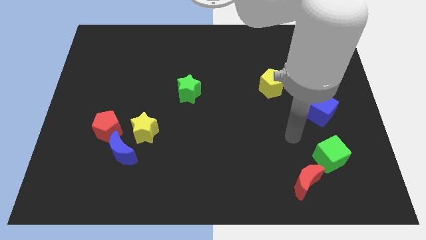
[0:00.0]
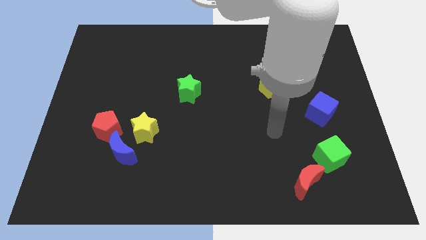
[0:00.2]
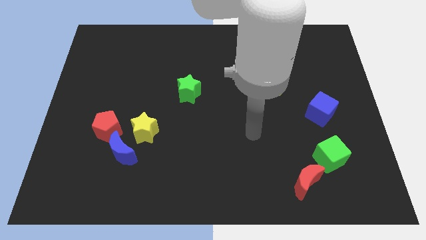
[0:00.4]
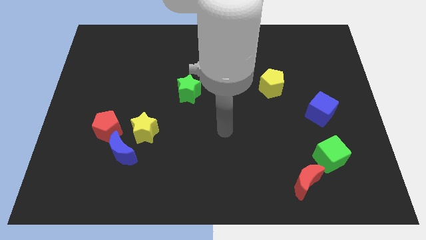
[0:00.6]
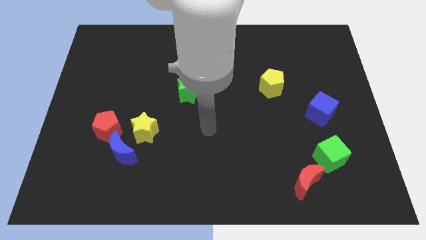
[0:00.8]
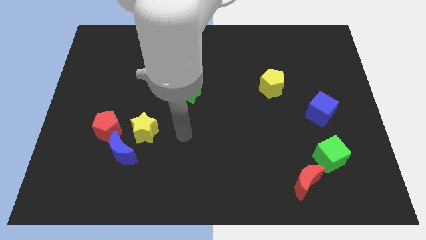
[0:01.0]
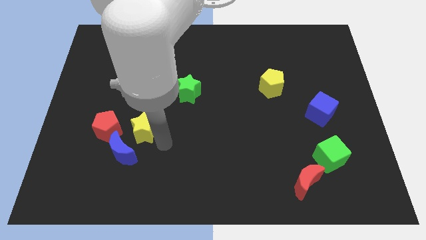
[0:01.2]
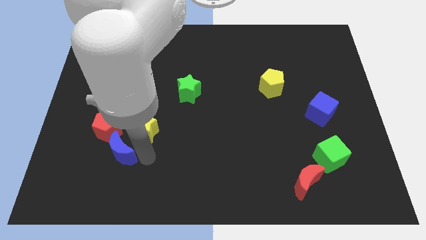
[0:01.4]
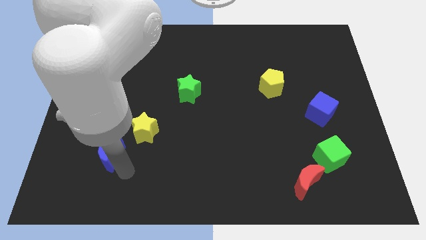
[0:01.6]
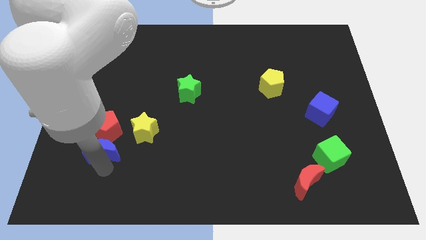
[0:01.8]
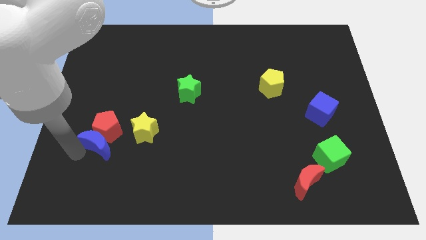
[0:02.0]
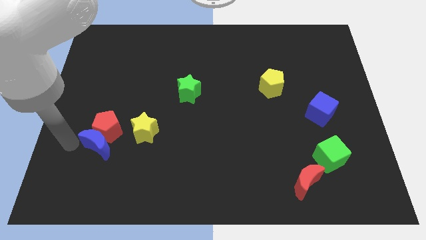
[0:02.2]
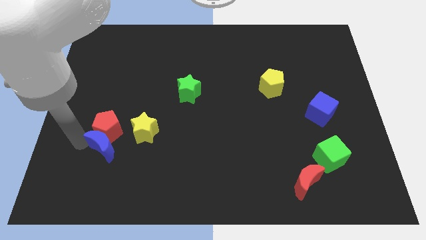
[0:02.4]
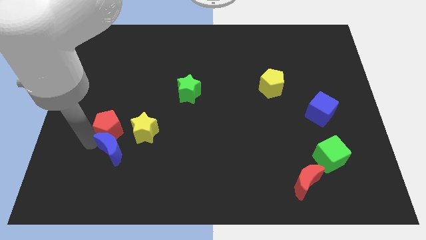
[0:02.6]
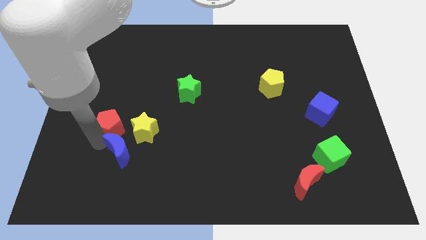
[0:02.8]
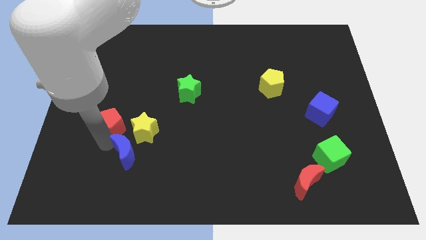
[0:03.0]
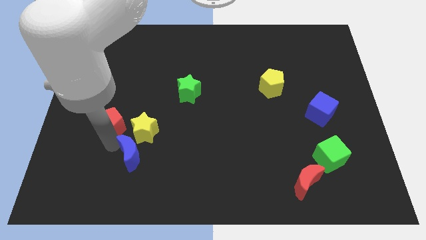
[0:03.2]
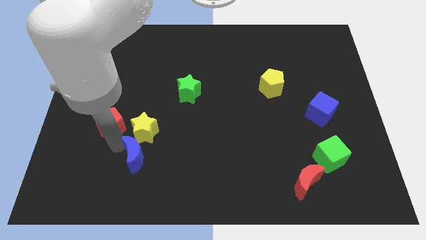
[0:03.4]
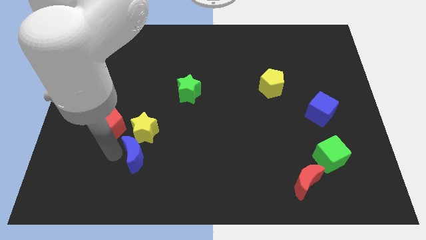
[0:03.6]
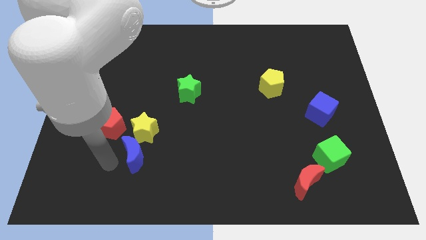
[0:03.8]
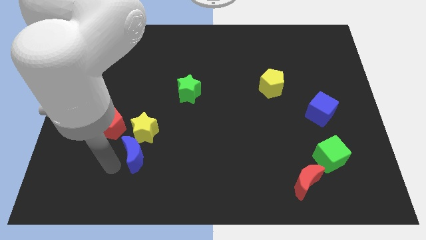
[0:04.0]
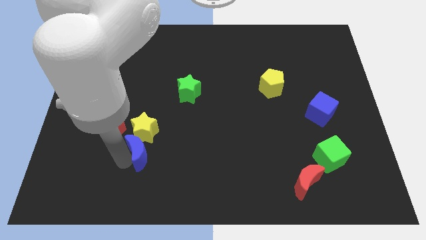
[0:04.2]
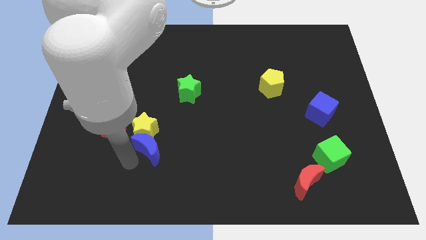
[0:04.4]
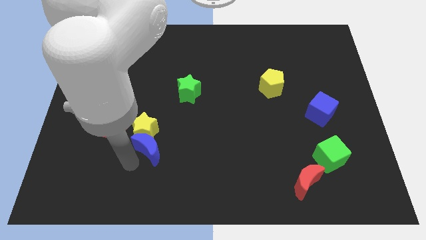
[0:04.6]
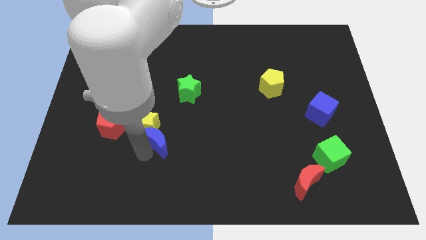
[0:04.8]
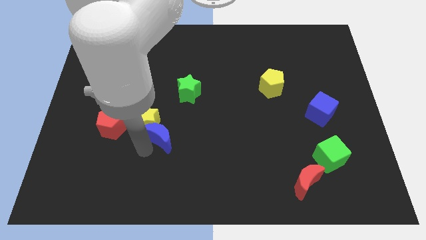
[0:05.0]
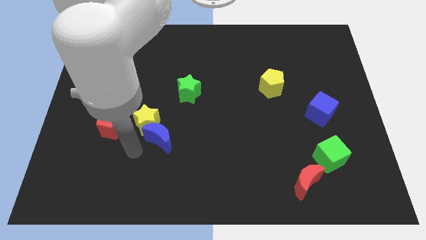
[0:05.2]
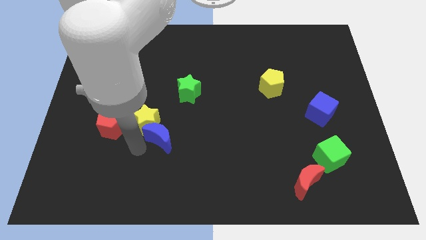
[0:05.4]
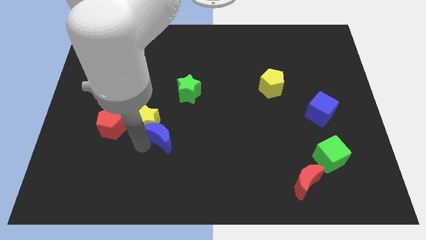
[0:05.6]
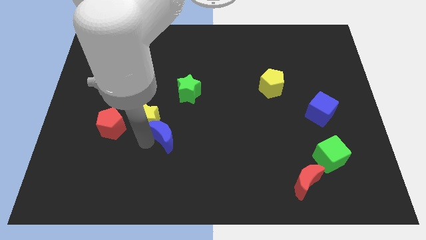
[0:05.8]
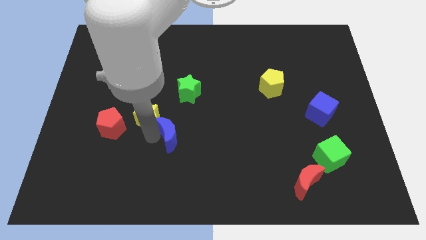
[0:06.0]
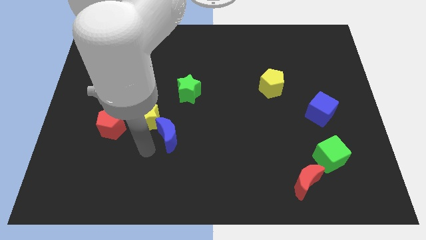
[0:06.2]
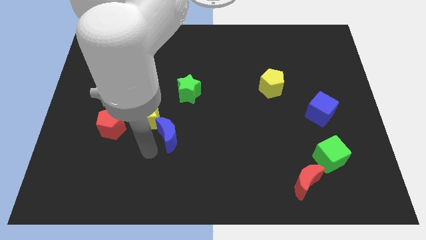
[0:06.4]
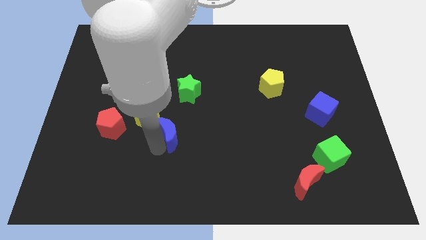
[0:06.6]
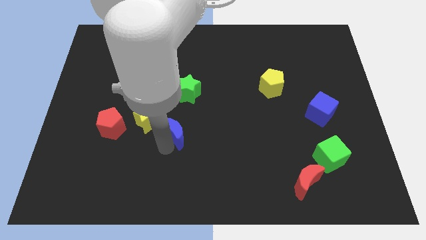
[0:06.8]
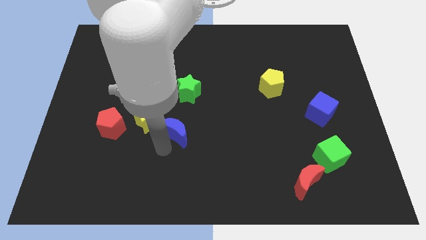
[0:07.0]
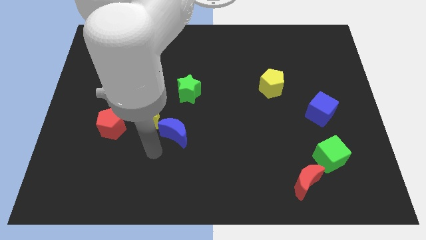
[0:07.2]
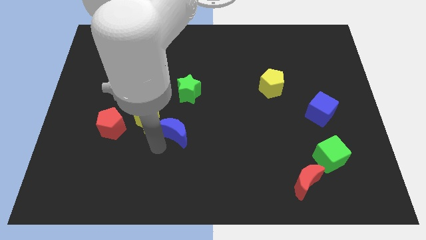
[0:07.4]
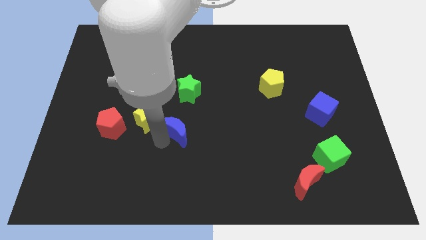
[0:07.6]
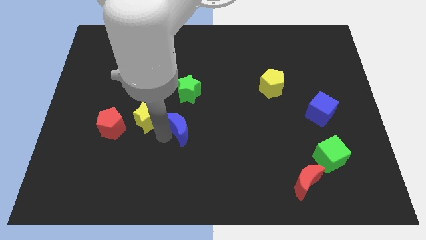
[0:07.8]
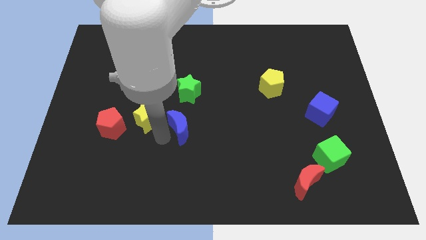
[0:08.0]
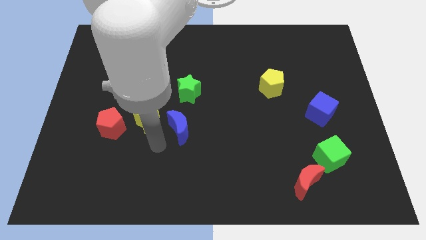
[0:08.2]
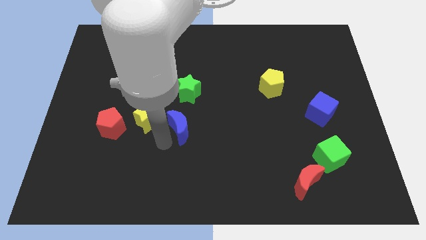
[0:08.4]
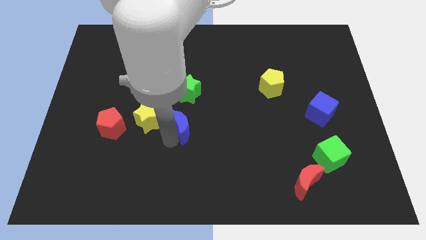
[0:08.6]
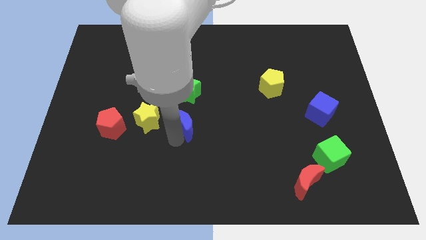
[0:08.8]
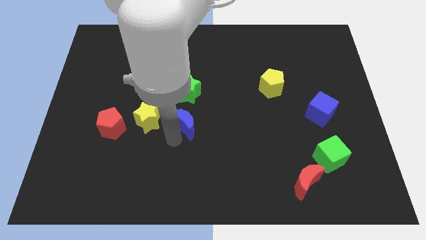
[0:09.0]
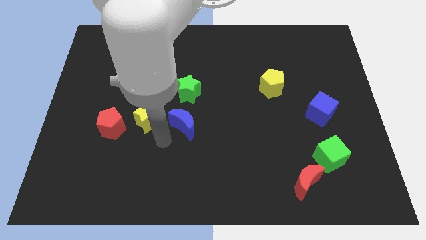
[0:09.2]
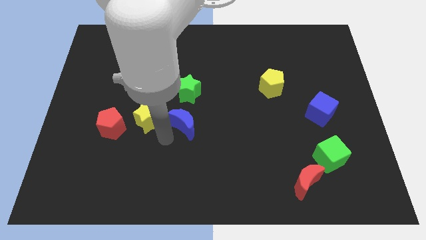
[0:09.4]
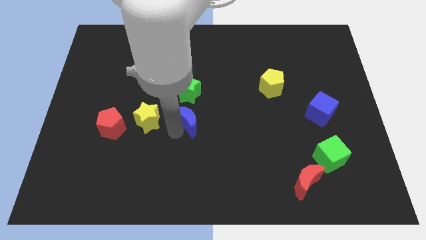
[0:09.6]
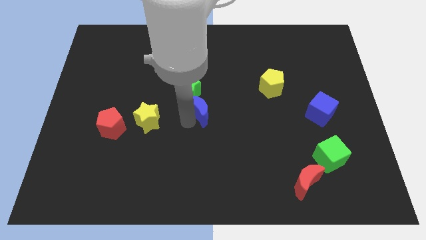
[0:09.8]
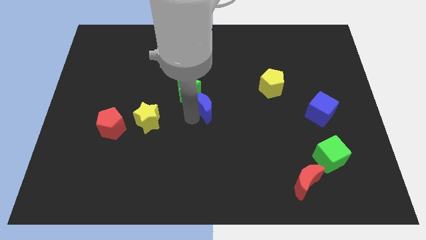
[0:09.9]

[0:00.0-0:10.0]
put the blue moon to the right side of the green star

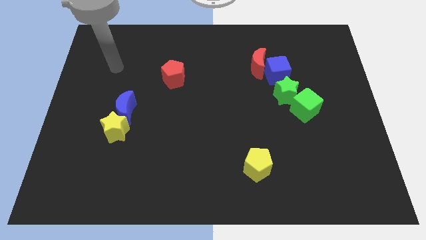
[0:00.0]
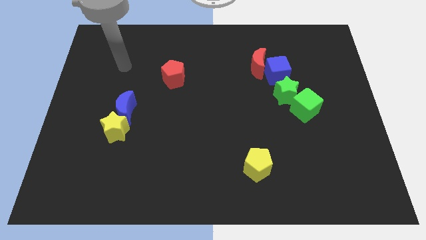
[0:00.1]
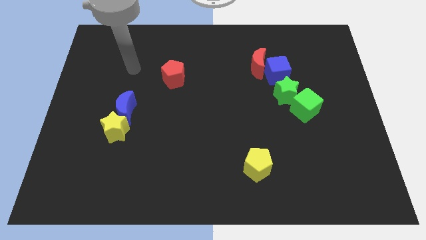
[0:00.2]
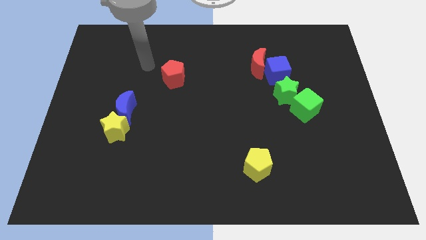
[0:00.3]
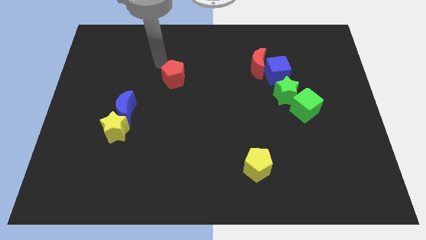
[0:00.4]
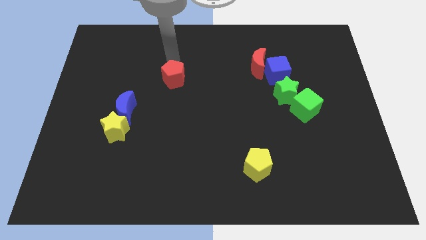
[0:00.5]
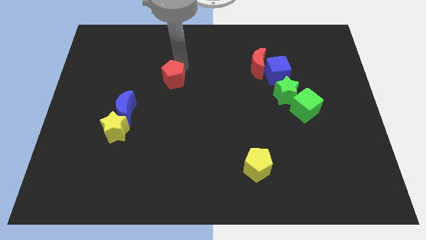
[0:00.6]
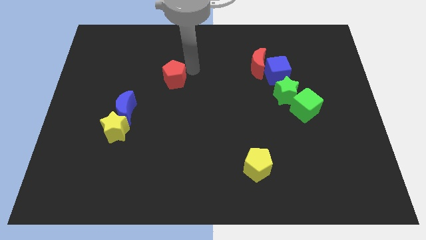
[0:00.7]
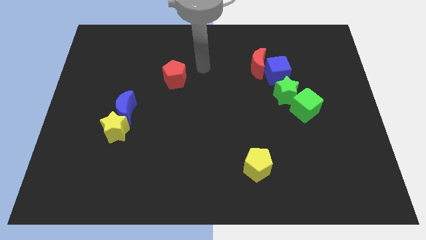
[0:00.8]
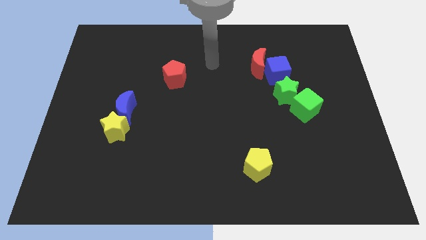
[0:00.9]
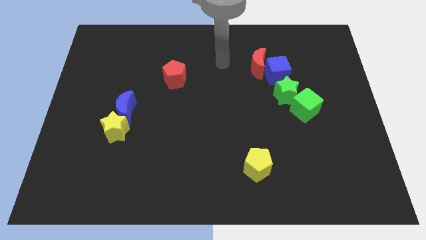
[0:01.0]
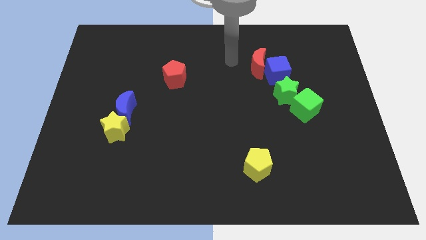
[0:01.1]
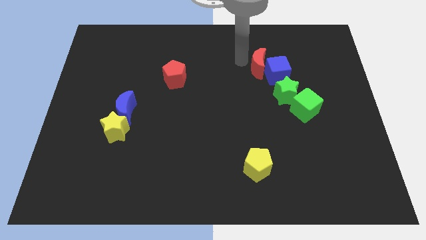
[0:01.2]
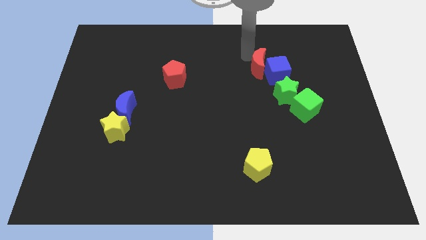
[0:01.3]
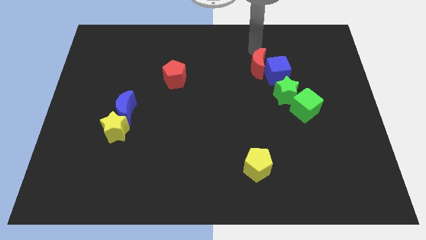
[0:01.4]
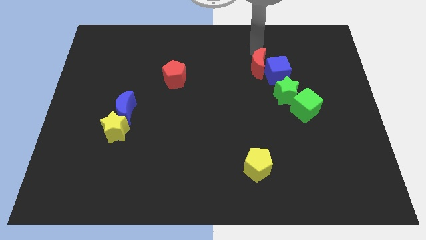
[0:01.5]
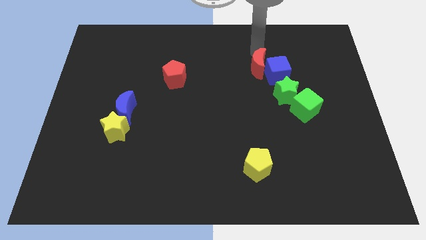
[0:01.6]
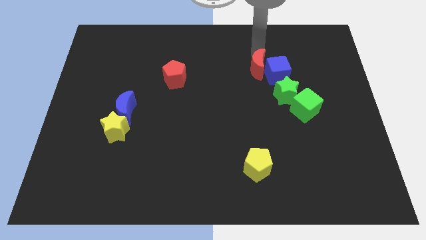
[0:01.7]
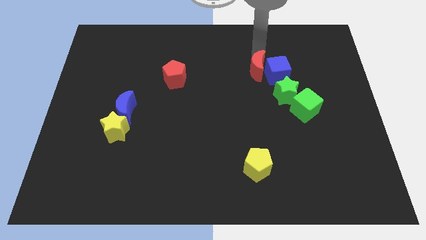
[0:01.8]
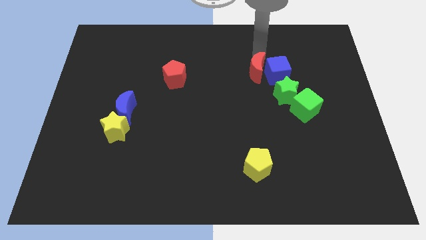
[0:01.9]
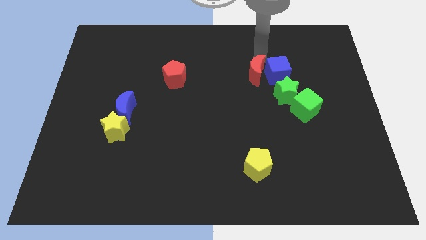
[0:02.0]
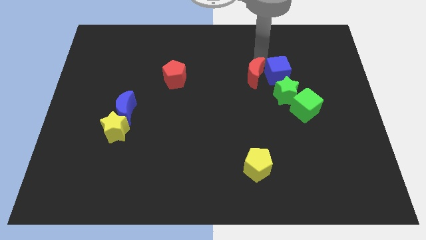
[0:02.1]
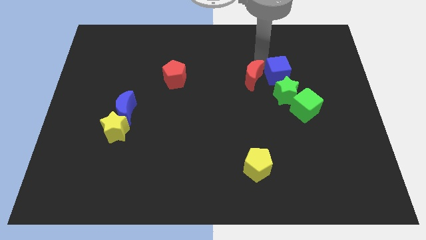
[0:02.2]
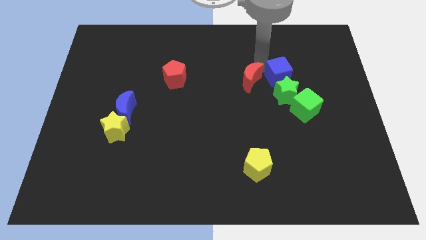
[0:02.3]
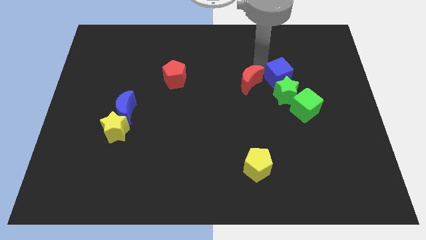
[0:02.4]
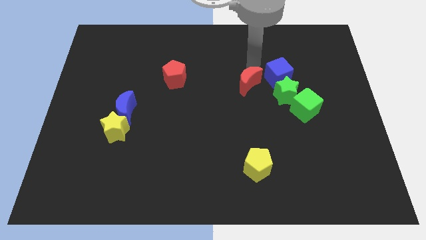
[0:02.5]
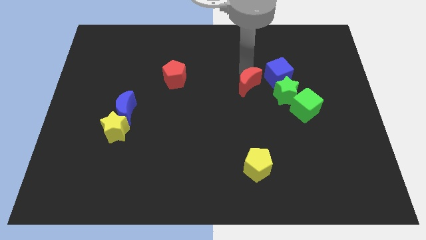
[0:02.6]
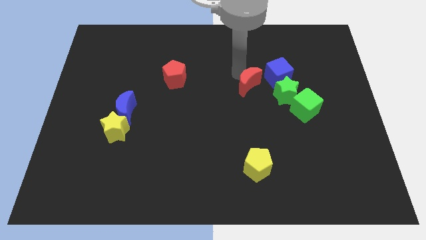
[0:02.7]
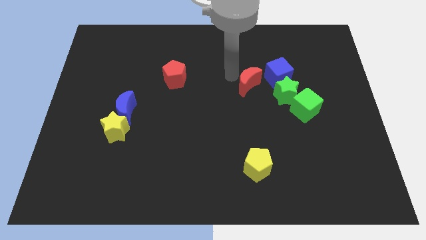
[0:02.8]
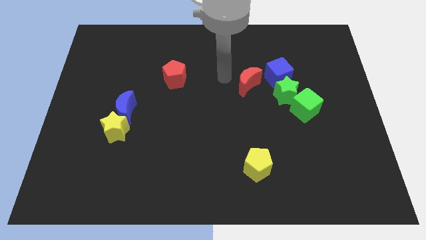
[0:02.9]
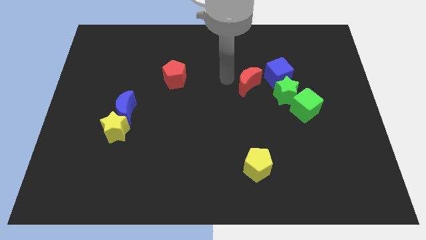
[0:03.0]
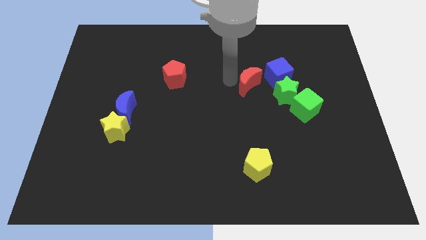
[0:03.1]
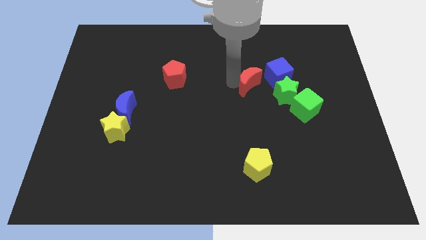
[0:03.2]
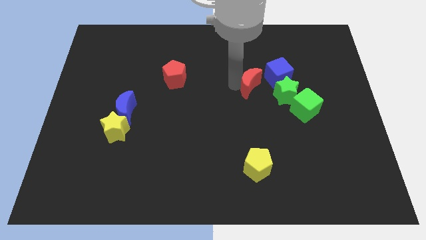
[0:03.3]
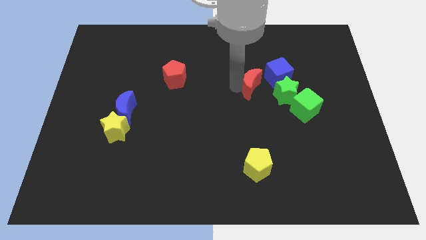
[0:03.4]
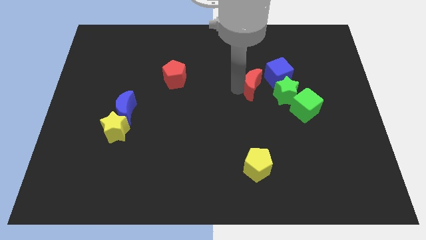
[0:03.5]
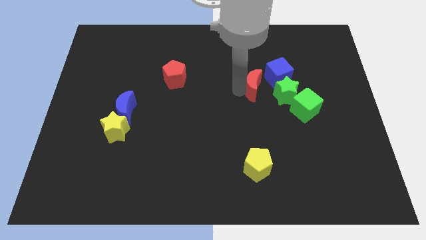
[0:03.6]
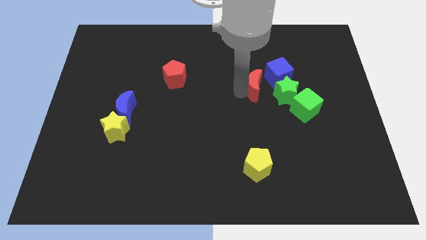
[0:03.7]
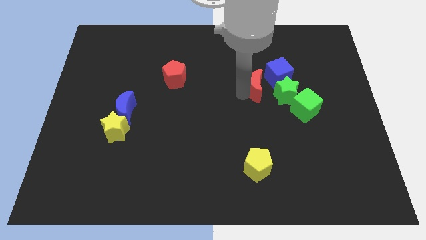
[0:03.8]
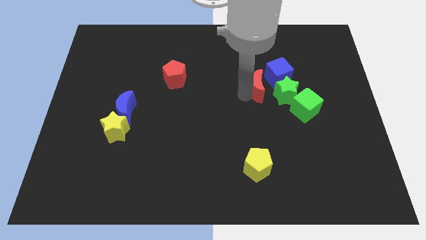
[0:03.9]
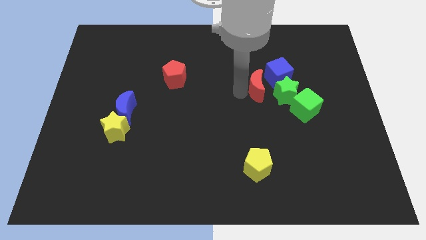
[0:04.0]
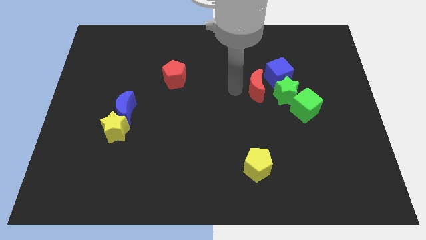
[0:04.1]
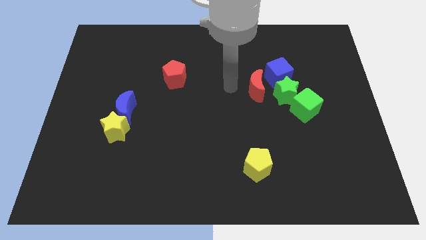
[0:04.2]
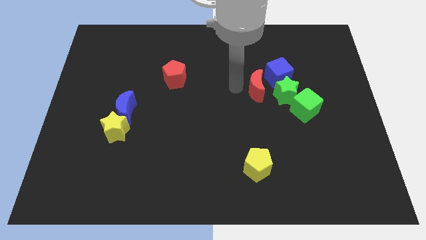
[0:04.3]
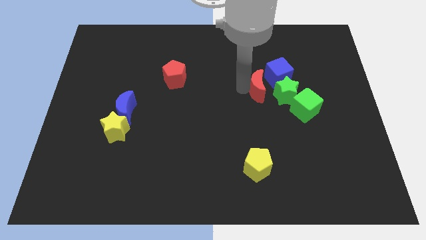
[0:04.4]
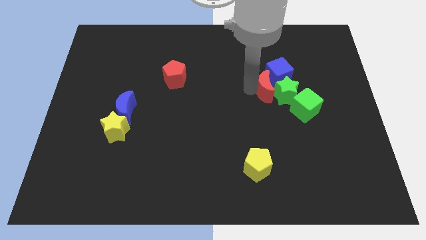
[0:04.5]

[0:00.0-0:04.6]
put the red moon to the top left side of the green cube
